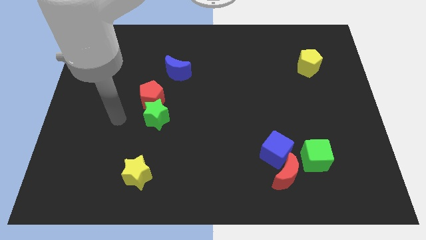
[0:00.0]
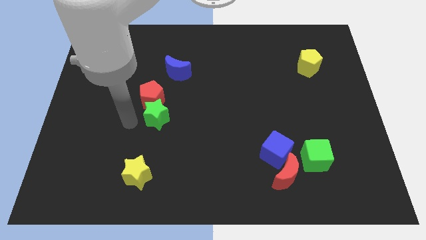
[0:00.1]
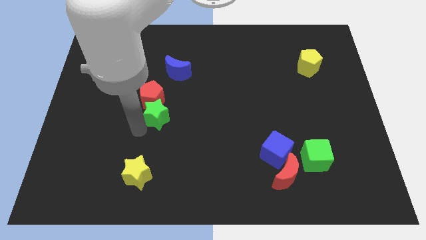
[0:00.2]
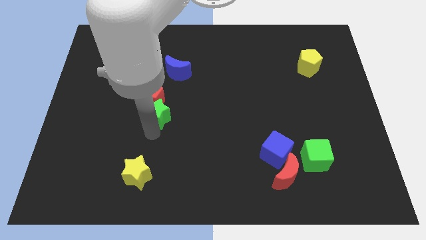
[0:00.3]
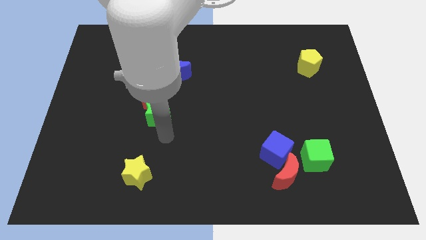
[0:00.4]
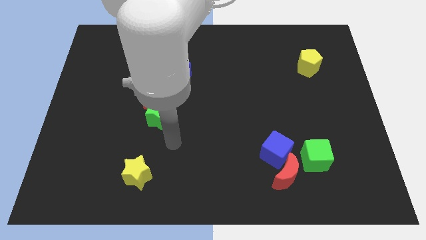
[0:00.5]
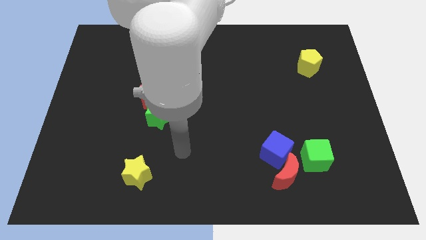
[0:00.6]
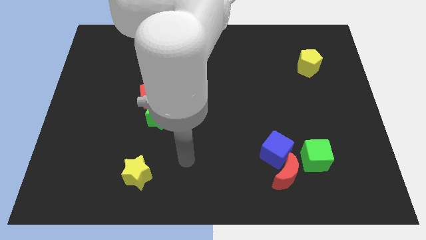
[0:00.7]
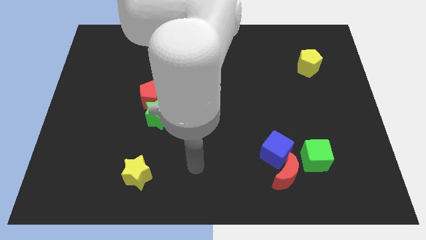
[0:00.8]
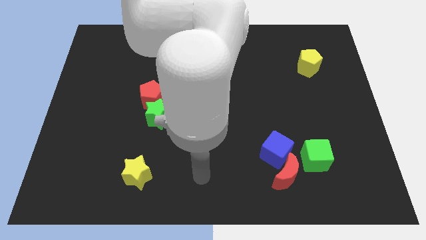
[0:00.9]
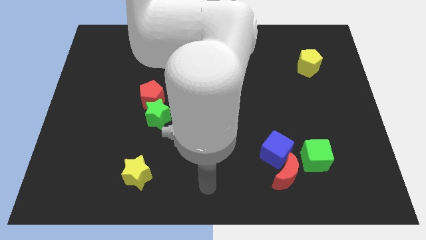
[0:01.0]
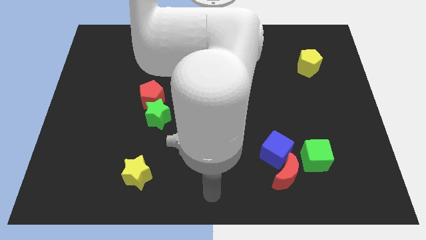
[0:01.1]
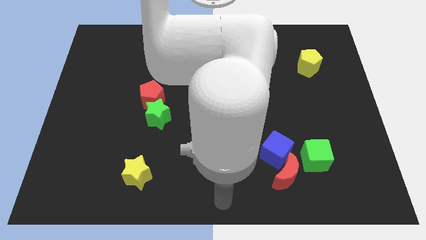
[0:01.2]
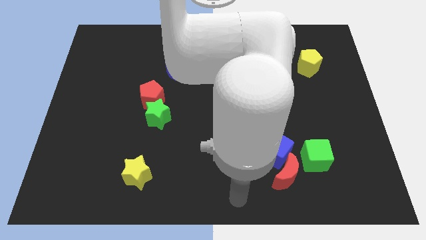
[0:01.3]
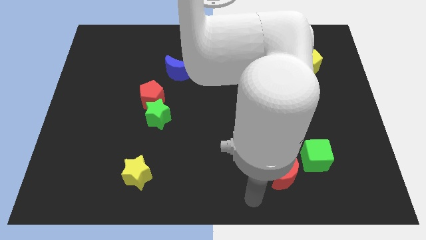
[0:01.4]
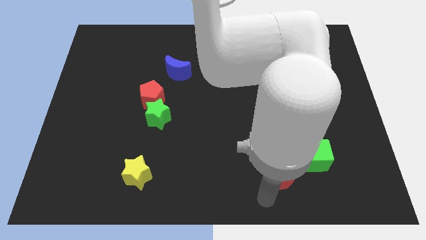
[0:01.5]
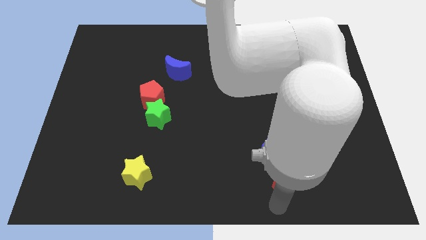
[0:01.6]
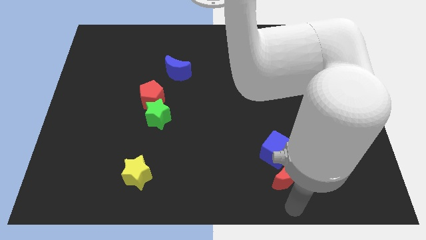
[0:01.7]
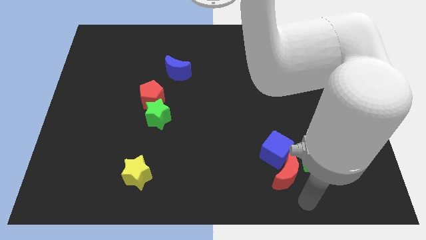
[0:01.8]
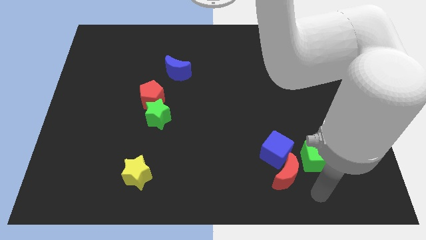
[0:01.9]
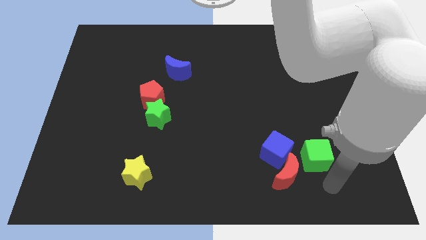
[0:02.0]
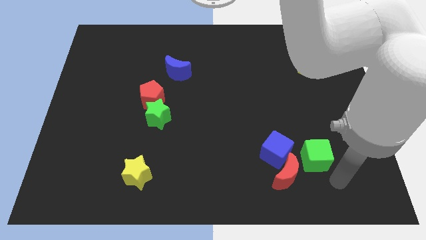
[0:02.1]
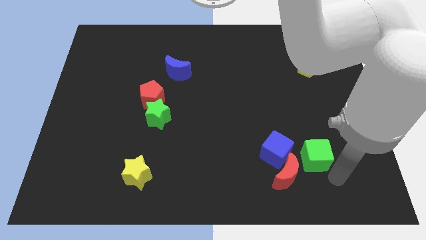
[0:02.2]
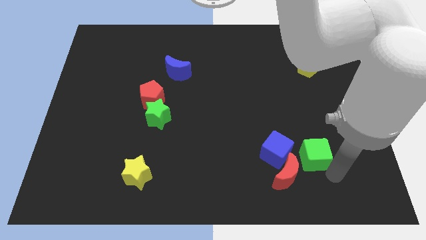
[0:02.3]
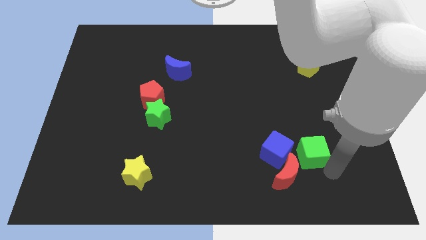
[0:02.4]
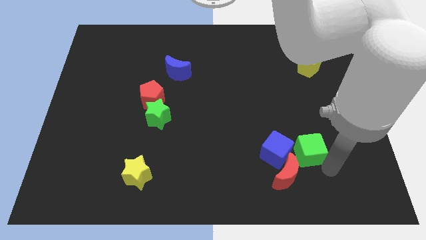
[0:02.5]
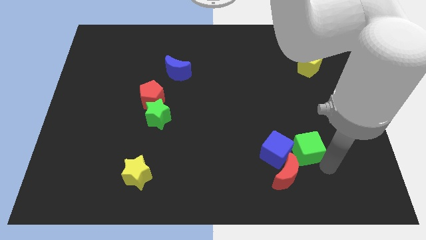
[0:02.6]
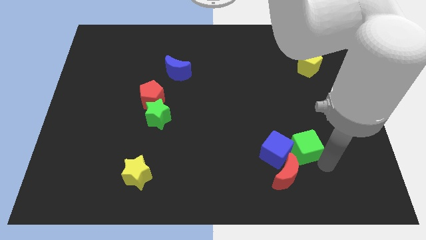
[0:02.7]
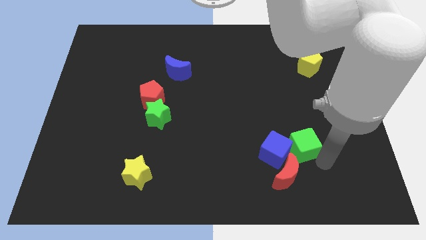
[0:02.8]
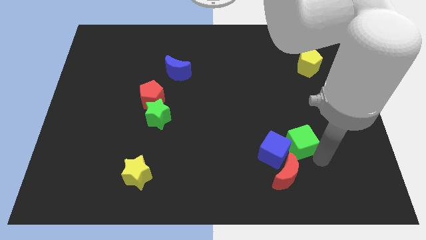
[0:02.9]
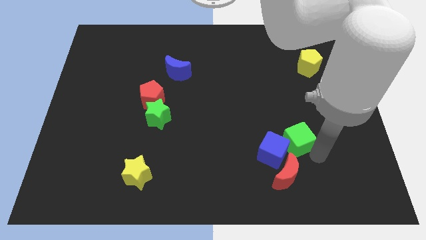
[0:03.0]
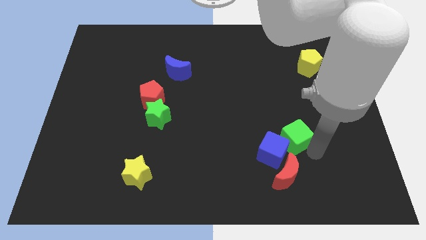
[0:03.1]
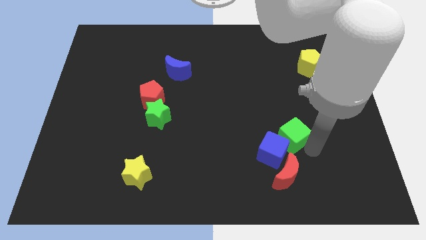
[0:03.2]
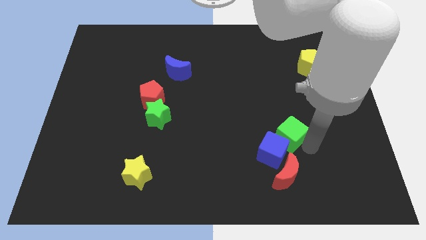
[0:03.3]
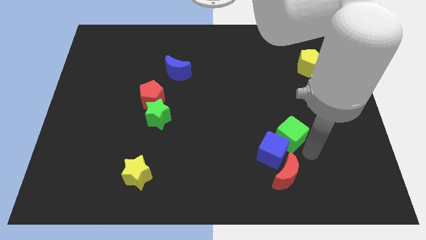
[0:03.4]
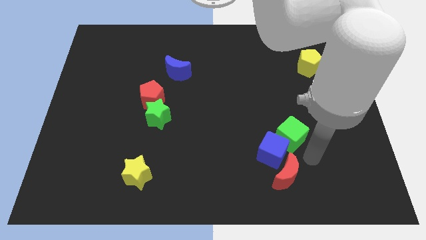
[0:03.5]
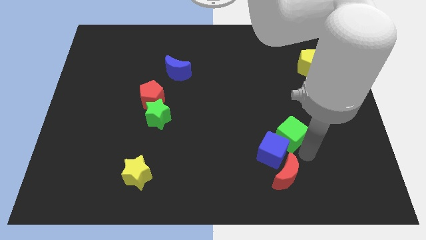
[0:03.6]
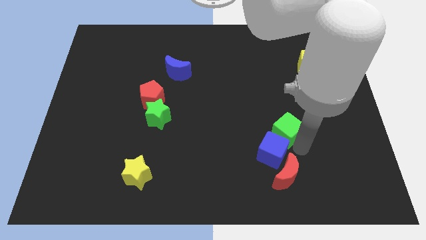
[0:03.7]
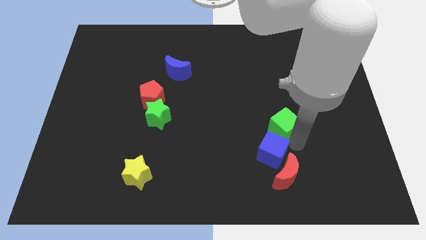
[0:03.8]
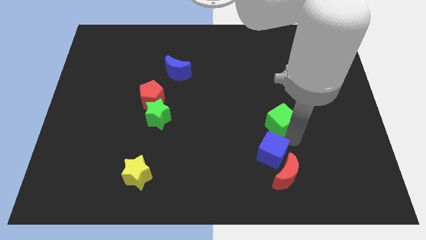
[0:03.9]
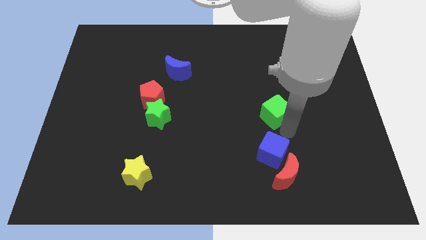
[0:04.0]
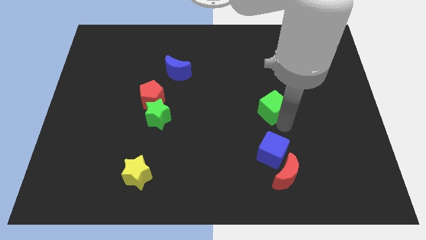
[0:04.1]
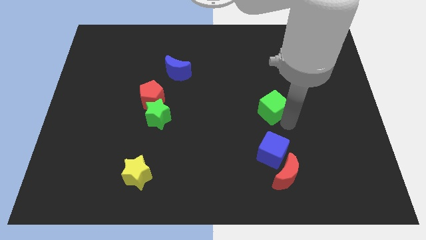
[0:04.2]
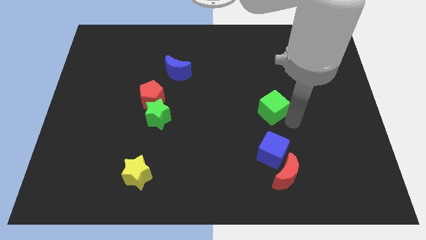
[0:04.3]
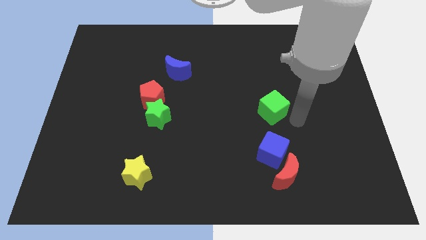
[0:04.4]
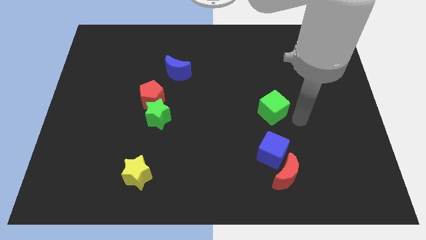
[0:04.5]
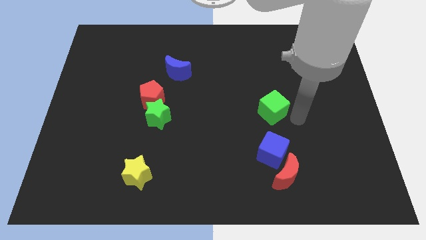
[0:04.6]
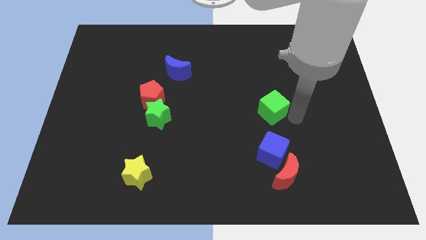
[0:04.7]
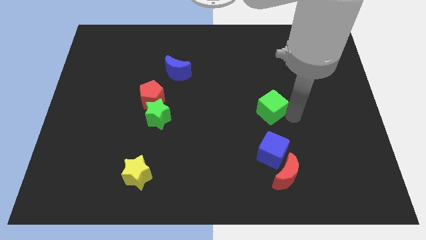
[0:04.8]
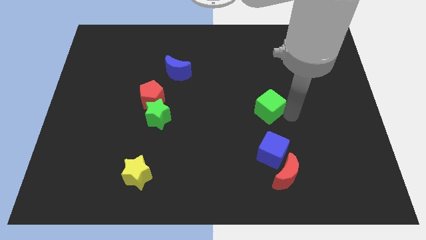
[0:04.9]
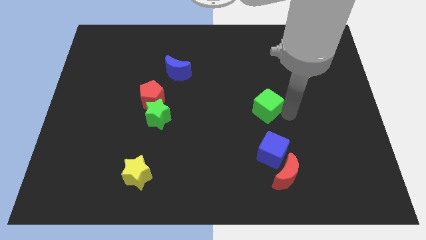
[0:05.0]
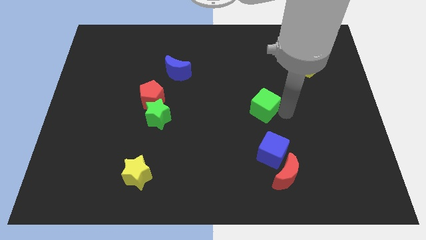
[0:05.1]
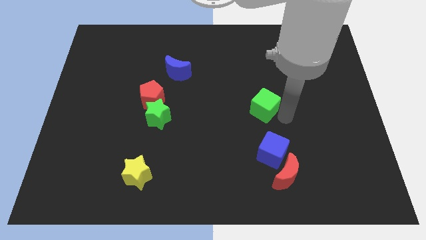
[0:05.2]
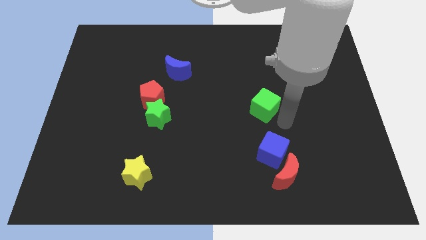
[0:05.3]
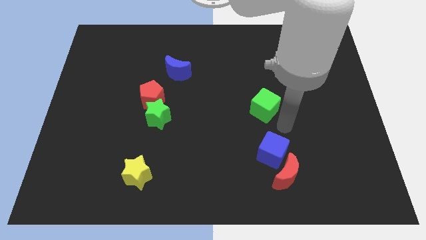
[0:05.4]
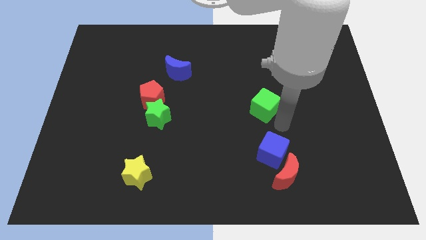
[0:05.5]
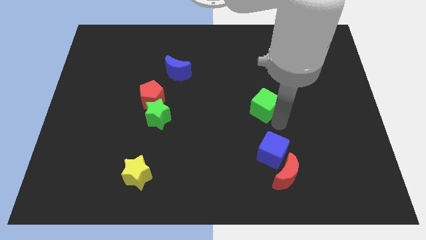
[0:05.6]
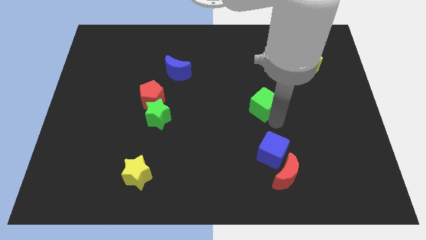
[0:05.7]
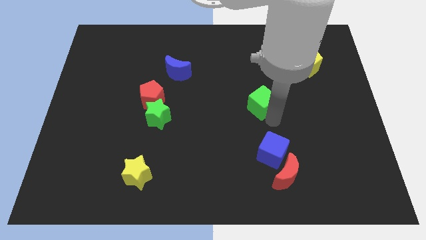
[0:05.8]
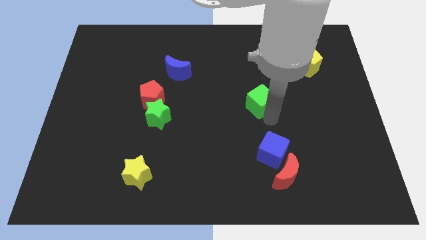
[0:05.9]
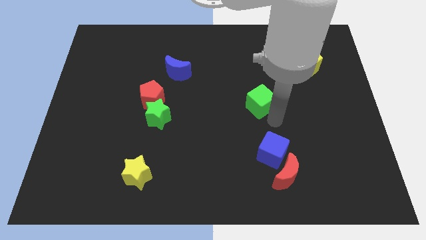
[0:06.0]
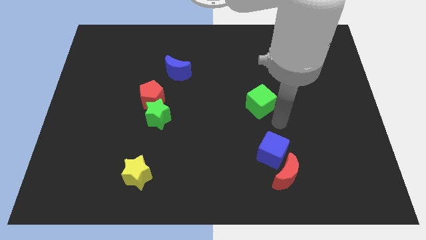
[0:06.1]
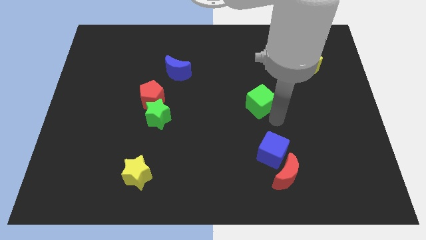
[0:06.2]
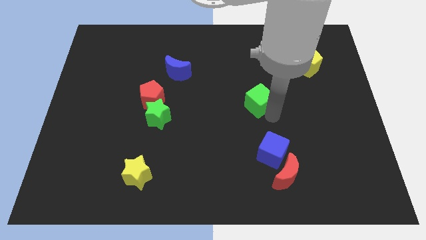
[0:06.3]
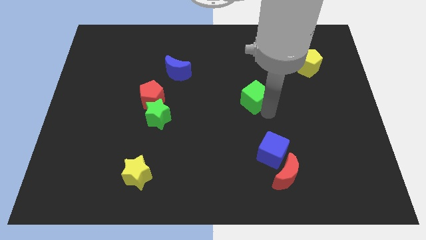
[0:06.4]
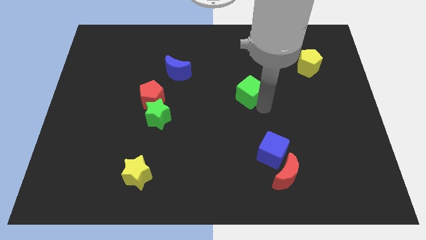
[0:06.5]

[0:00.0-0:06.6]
slide the green cube upwards and then to the left

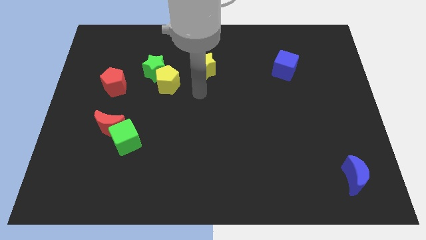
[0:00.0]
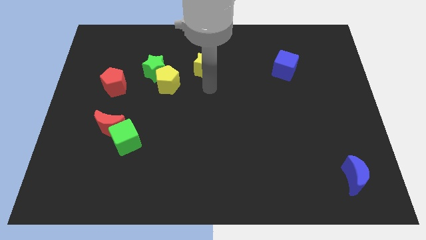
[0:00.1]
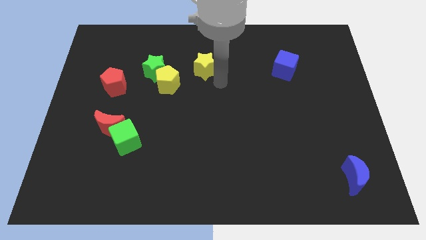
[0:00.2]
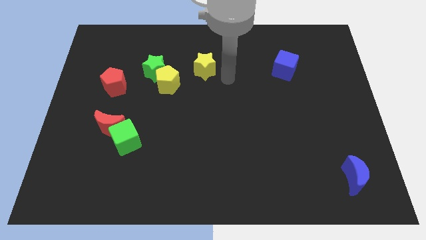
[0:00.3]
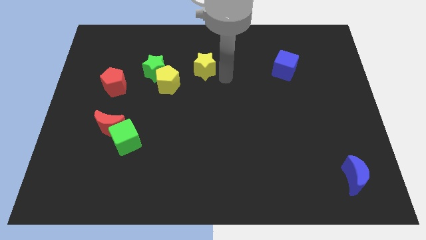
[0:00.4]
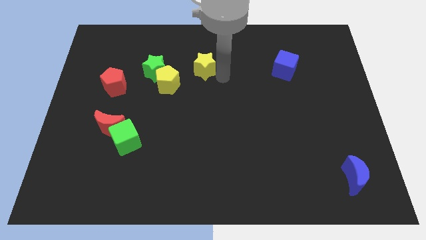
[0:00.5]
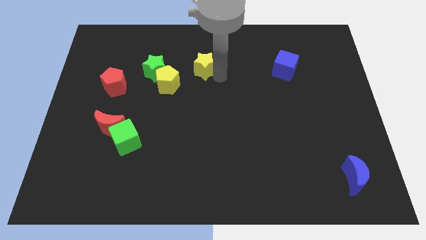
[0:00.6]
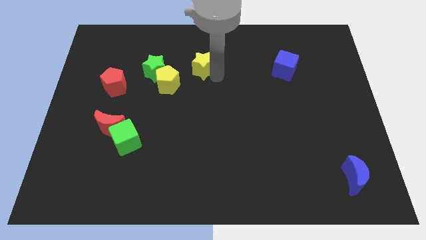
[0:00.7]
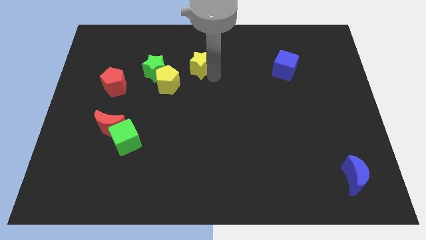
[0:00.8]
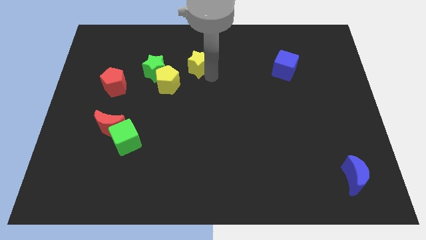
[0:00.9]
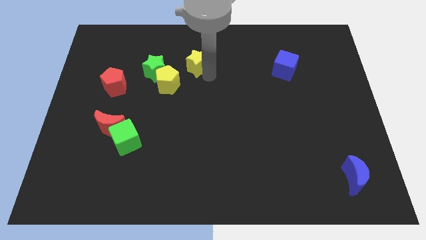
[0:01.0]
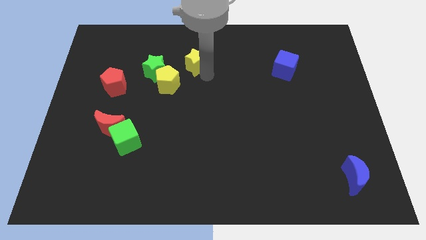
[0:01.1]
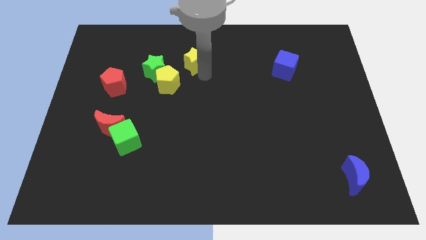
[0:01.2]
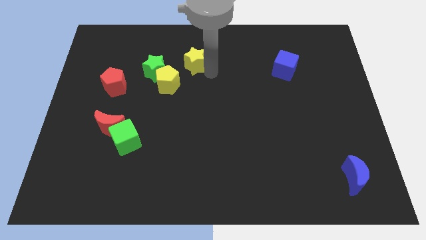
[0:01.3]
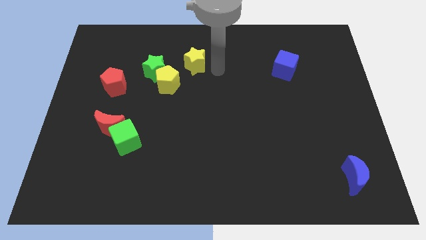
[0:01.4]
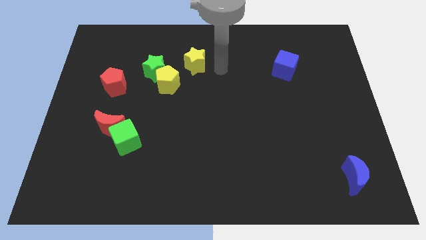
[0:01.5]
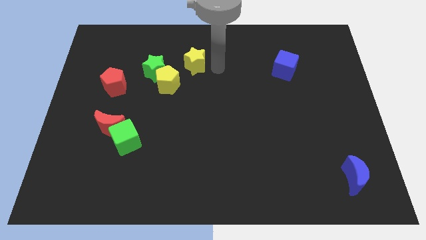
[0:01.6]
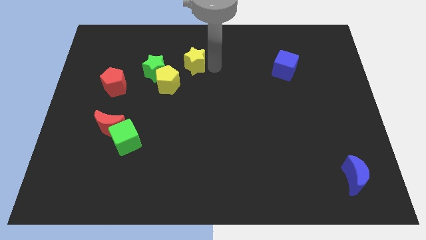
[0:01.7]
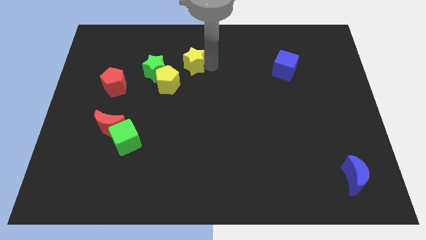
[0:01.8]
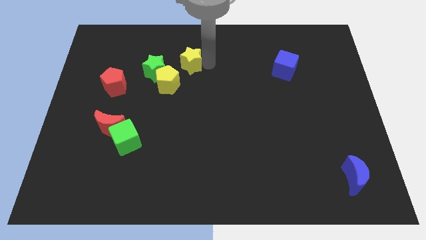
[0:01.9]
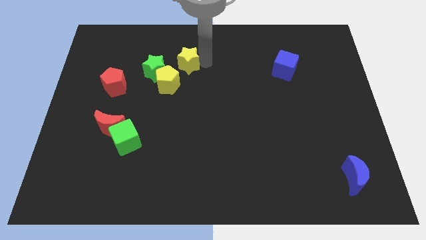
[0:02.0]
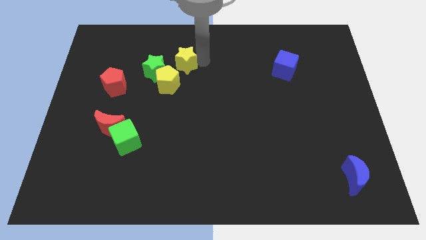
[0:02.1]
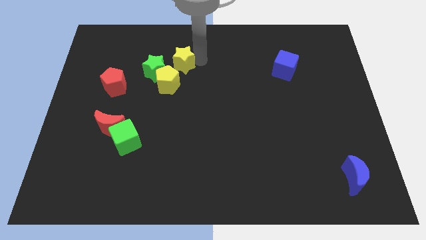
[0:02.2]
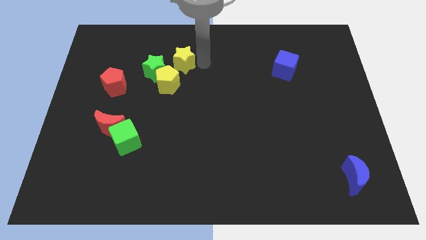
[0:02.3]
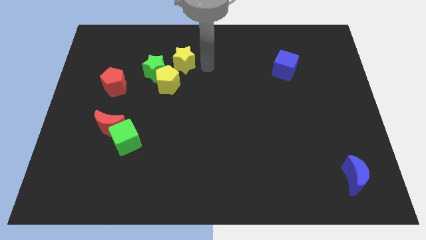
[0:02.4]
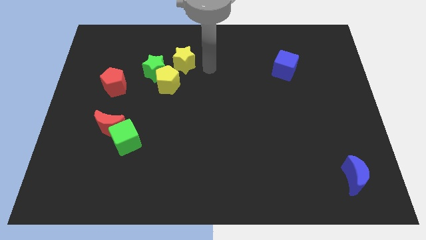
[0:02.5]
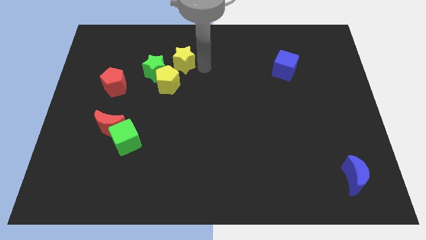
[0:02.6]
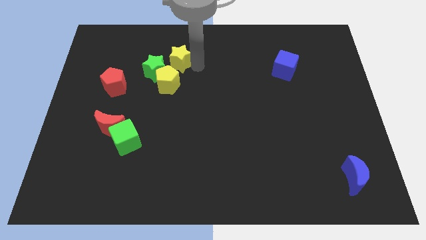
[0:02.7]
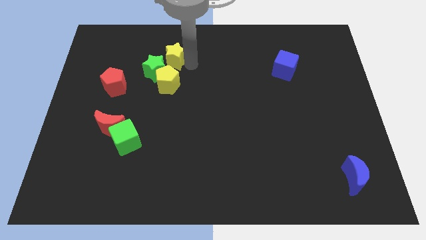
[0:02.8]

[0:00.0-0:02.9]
slide the yellow star a bit to the left
